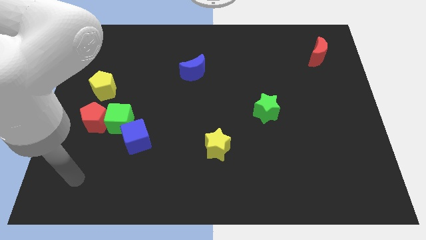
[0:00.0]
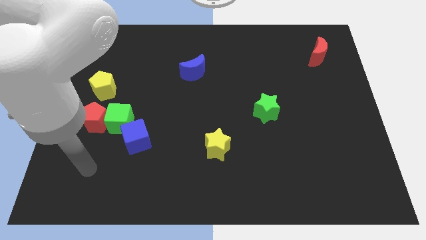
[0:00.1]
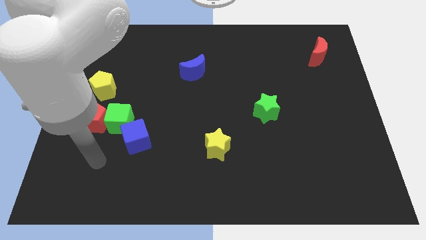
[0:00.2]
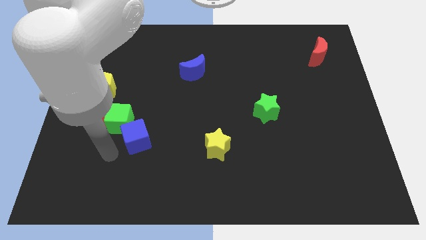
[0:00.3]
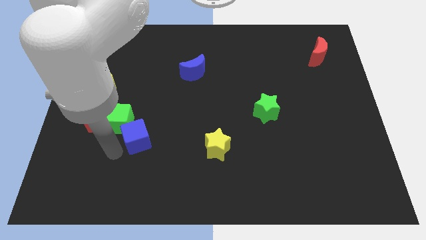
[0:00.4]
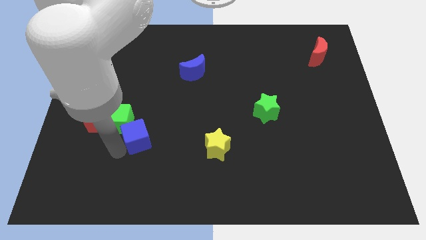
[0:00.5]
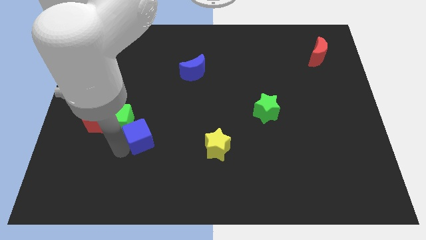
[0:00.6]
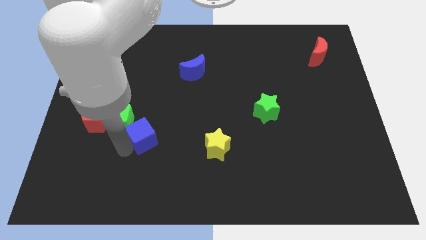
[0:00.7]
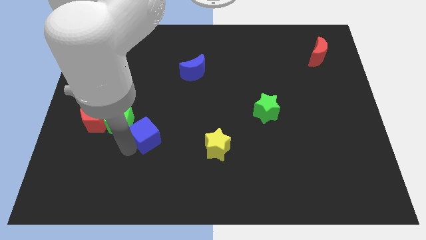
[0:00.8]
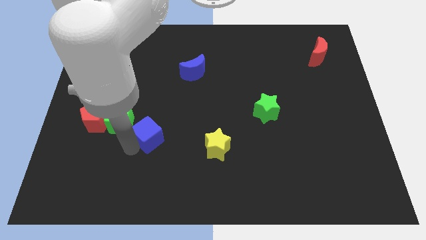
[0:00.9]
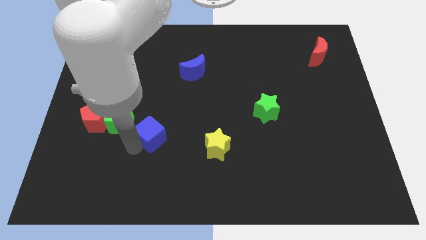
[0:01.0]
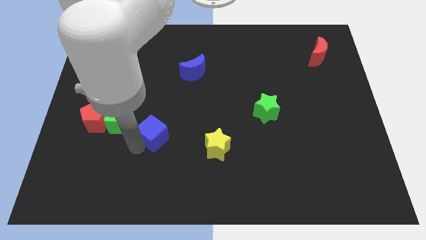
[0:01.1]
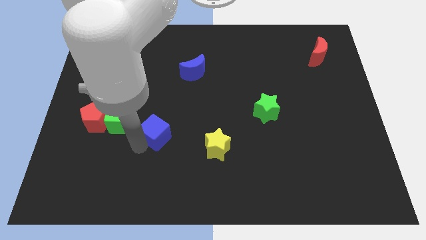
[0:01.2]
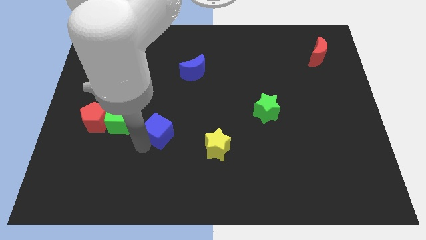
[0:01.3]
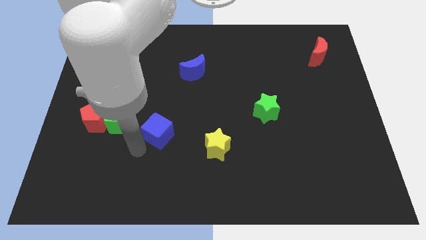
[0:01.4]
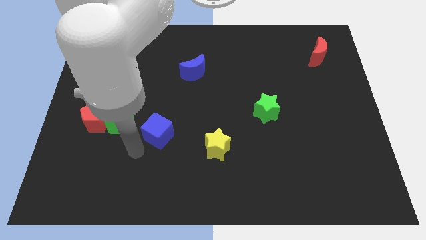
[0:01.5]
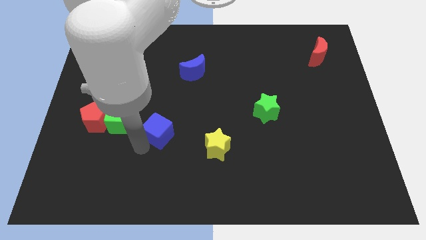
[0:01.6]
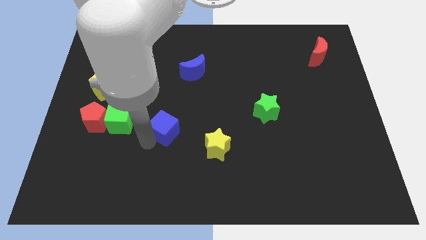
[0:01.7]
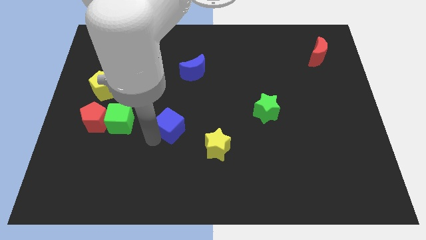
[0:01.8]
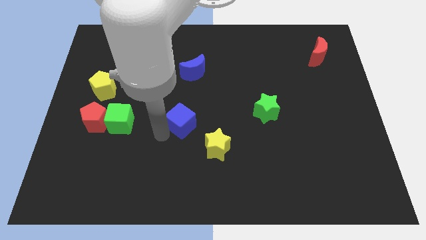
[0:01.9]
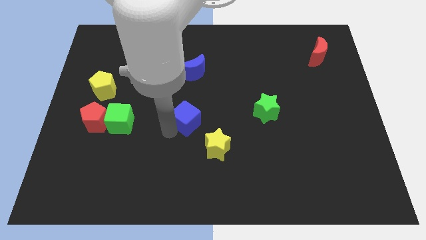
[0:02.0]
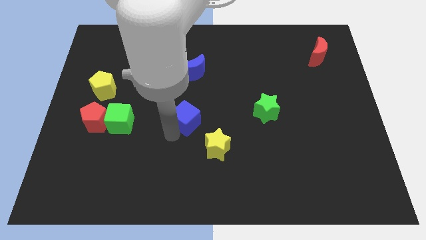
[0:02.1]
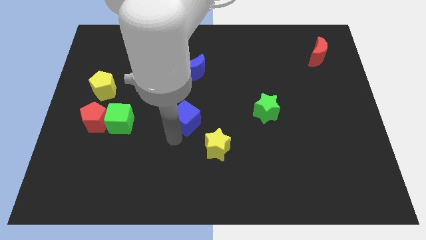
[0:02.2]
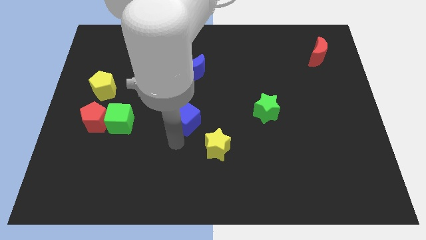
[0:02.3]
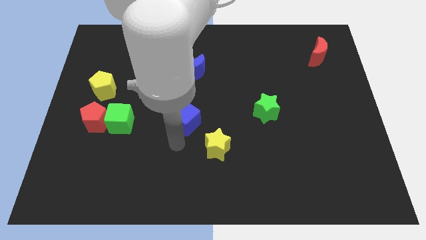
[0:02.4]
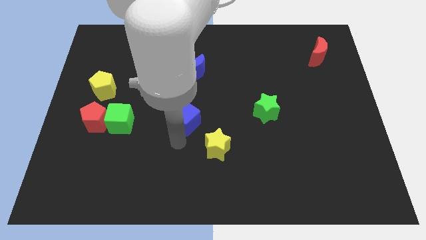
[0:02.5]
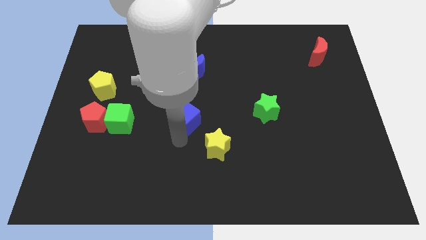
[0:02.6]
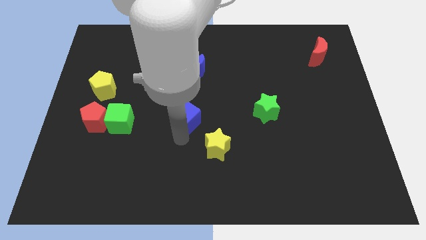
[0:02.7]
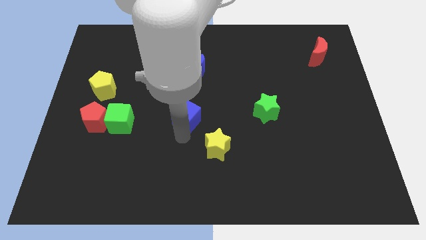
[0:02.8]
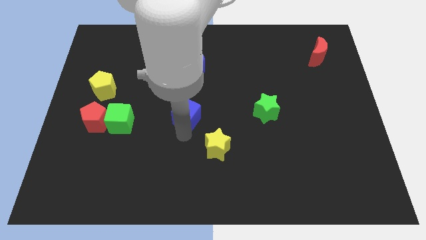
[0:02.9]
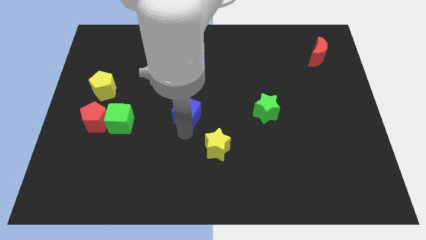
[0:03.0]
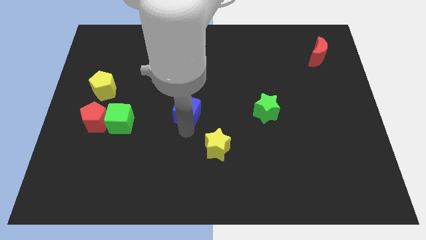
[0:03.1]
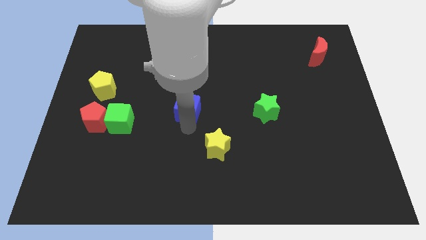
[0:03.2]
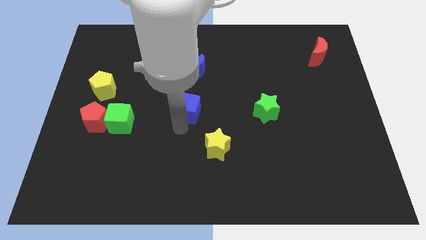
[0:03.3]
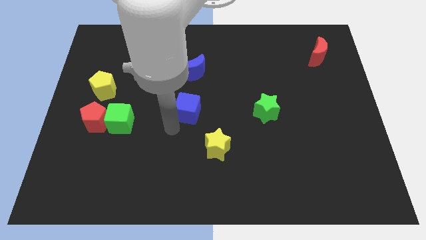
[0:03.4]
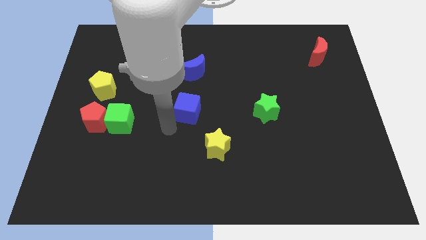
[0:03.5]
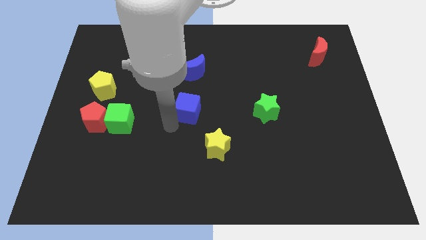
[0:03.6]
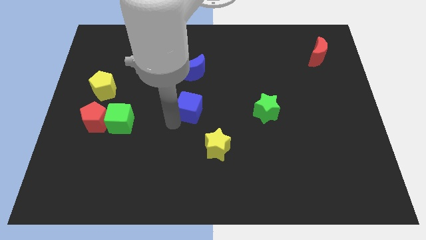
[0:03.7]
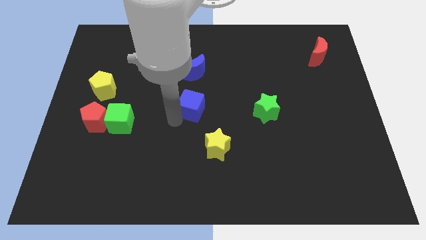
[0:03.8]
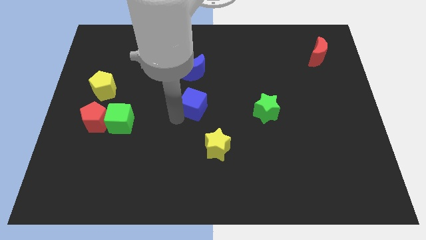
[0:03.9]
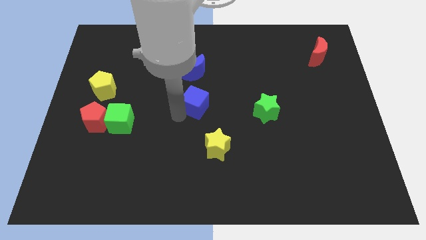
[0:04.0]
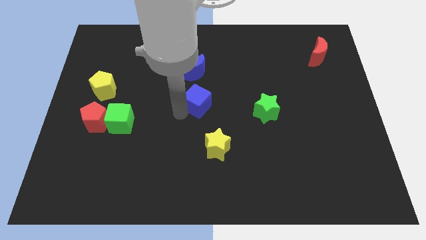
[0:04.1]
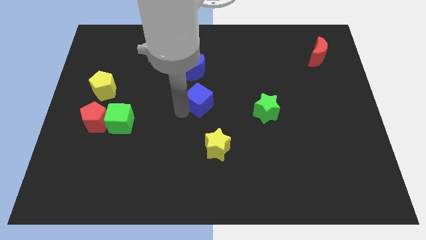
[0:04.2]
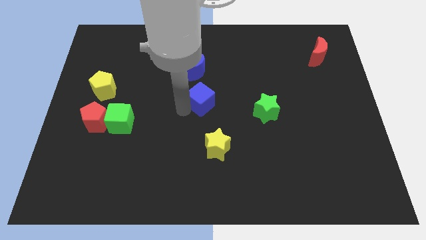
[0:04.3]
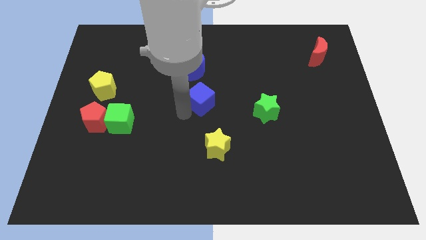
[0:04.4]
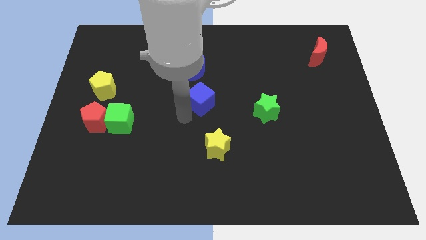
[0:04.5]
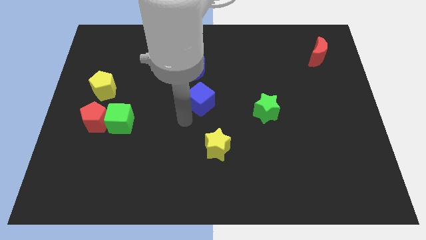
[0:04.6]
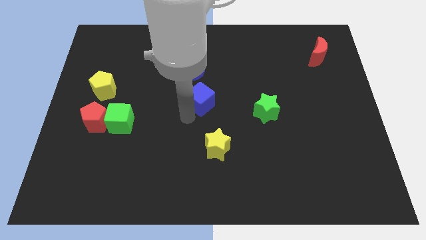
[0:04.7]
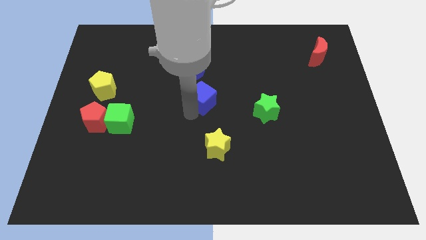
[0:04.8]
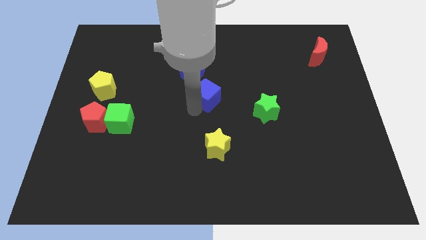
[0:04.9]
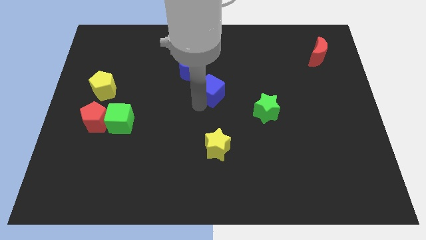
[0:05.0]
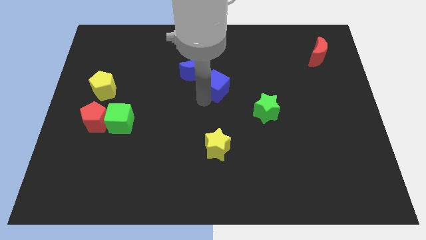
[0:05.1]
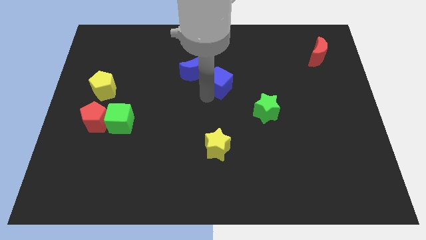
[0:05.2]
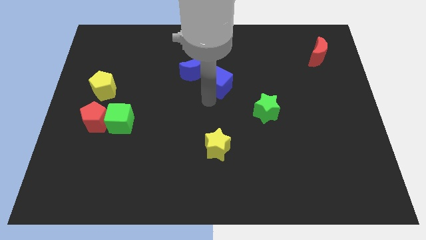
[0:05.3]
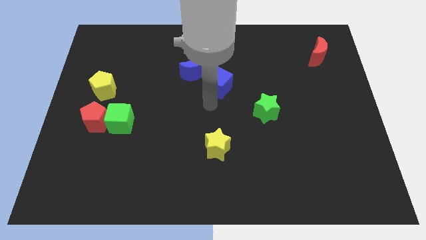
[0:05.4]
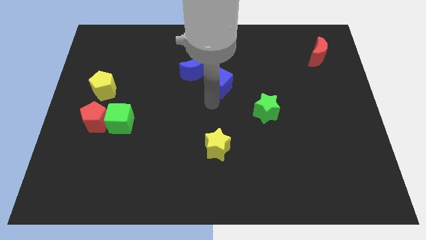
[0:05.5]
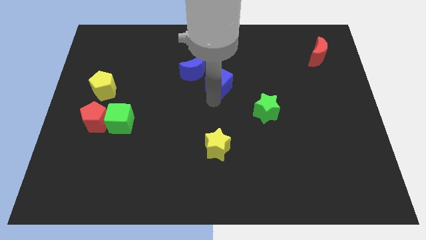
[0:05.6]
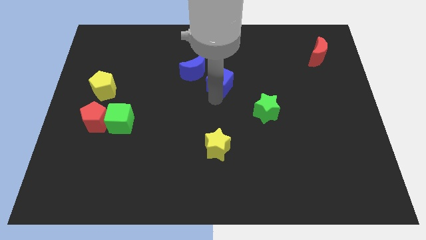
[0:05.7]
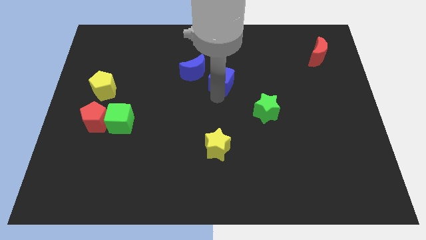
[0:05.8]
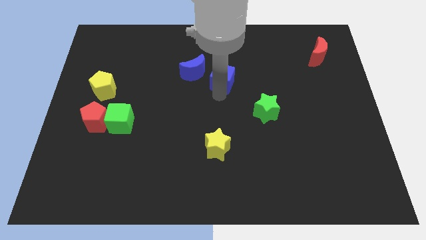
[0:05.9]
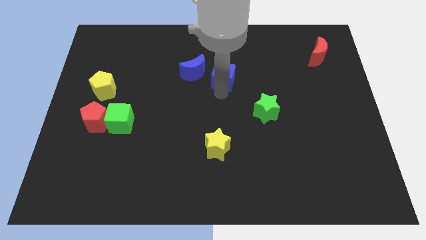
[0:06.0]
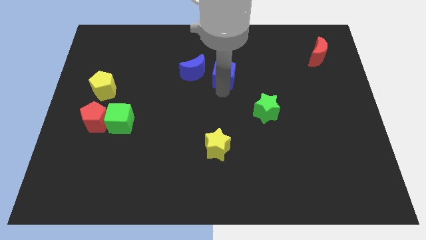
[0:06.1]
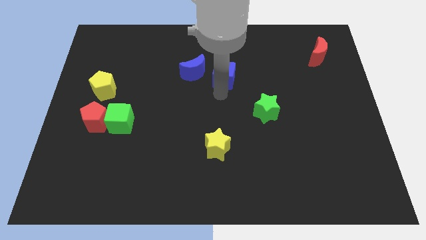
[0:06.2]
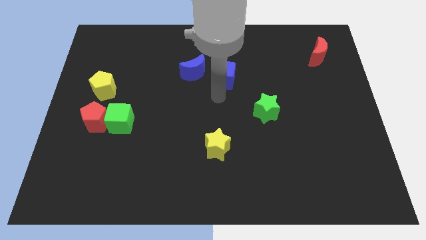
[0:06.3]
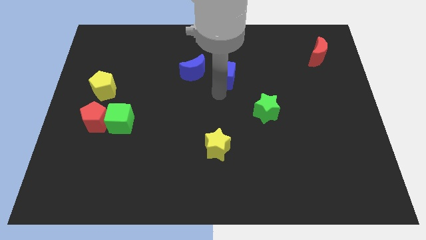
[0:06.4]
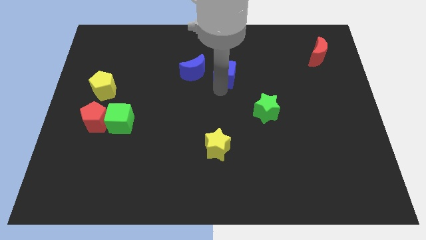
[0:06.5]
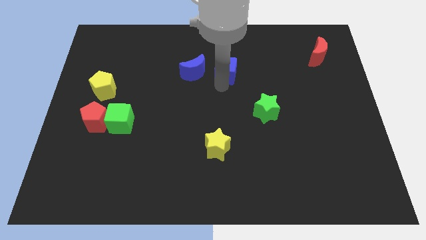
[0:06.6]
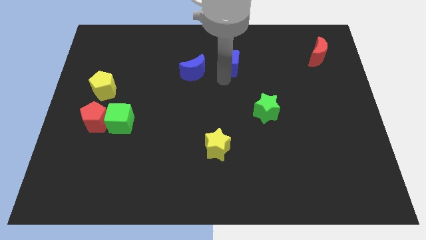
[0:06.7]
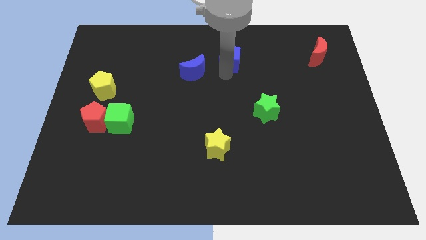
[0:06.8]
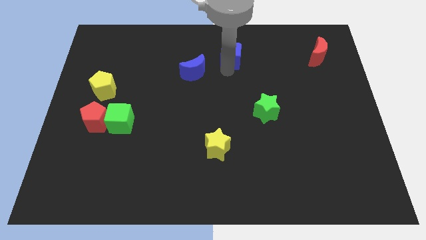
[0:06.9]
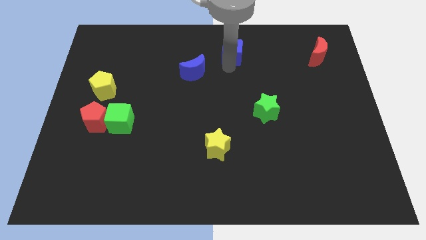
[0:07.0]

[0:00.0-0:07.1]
slide the blue cube to the top
